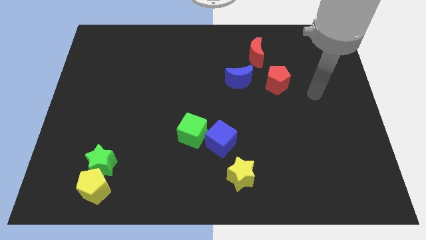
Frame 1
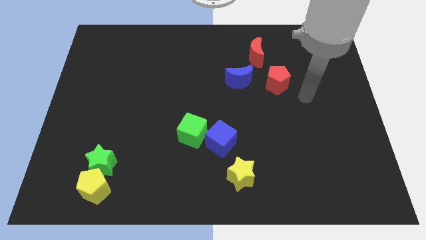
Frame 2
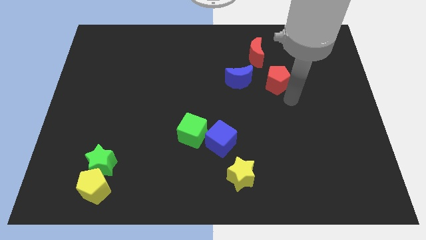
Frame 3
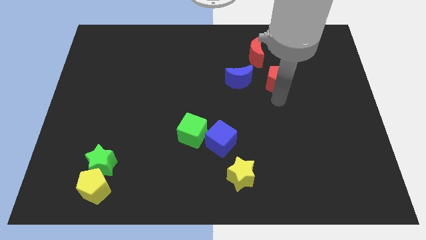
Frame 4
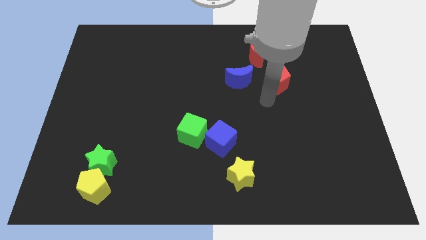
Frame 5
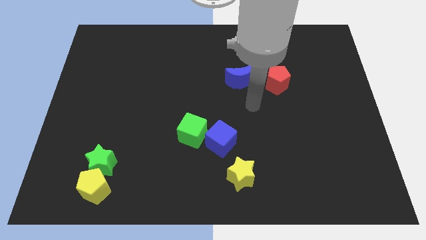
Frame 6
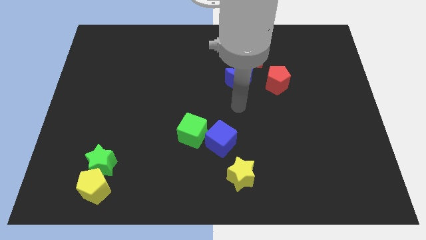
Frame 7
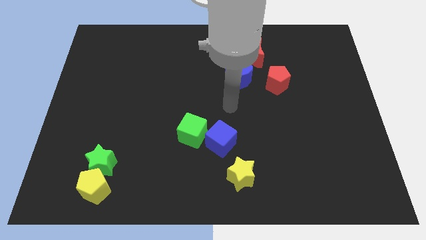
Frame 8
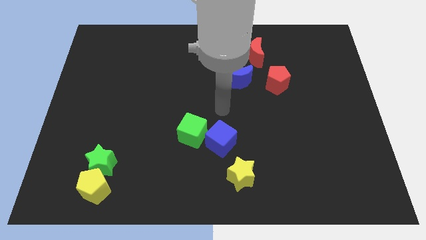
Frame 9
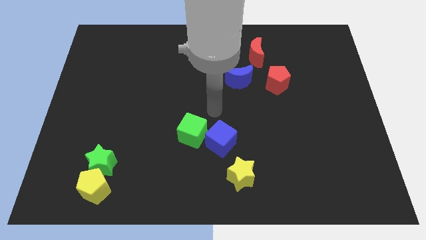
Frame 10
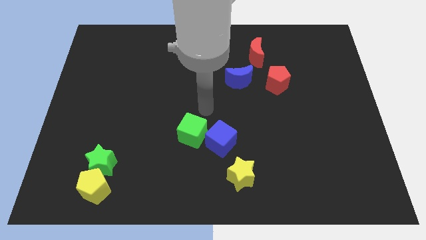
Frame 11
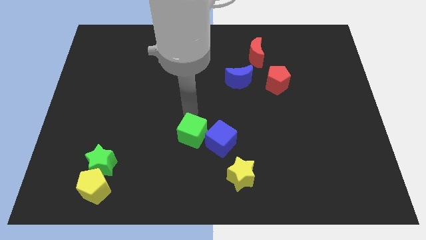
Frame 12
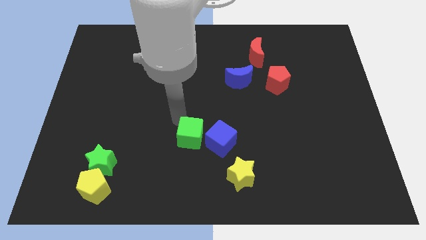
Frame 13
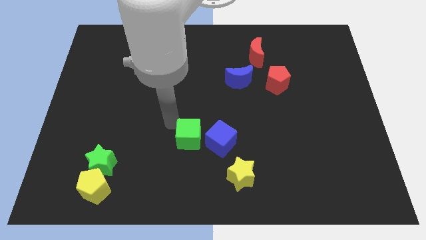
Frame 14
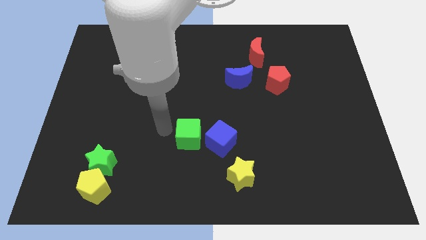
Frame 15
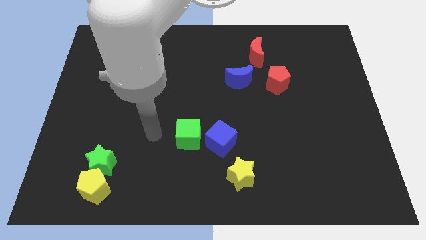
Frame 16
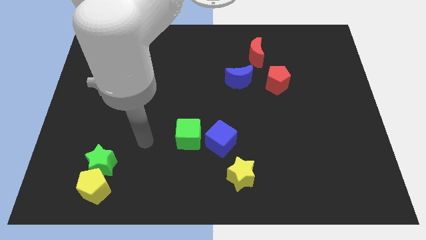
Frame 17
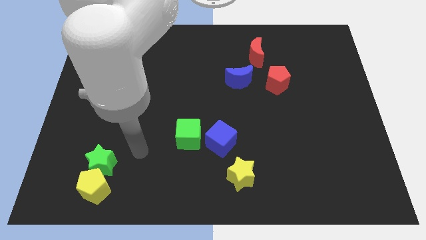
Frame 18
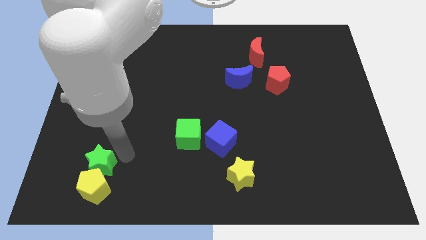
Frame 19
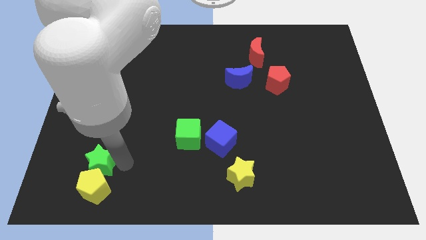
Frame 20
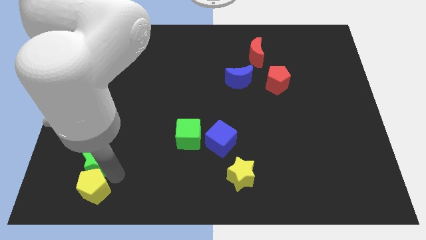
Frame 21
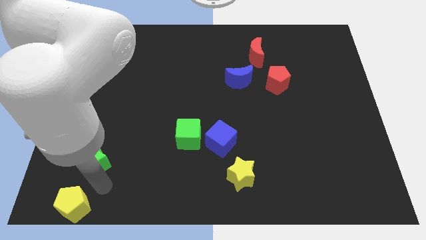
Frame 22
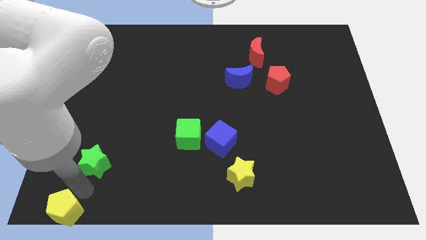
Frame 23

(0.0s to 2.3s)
pull the green star apart from the yellow pentagon

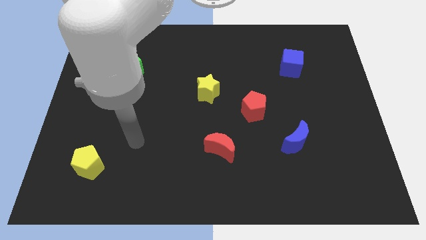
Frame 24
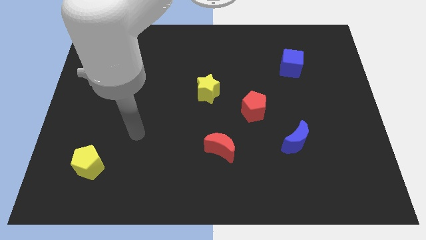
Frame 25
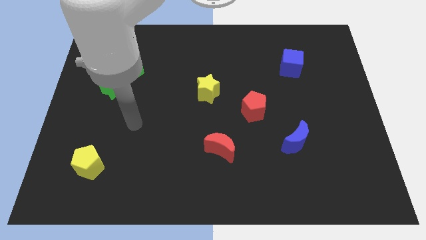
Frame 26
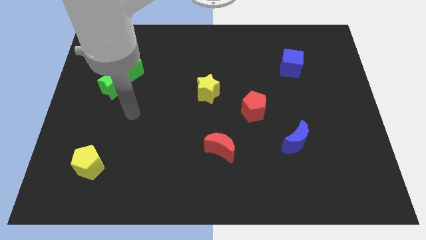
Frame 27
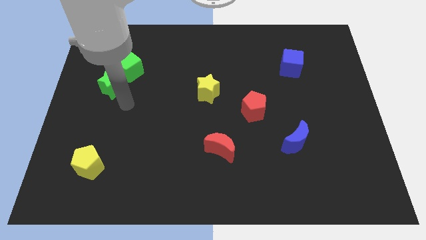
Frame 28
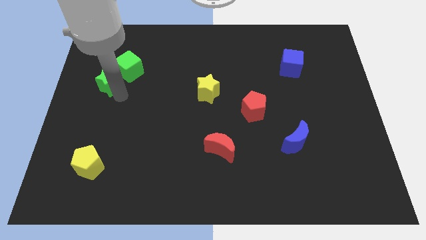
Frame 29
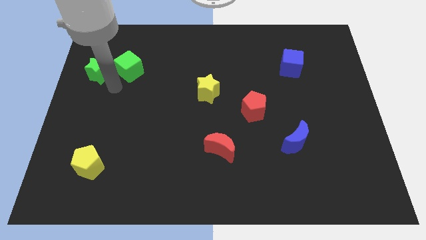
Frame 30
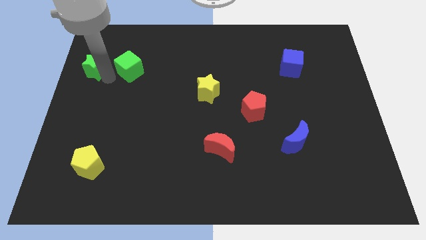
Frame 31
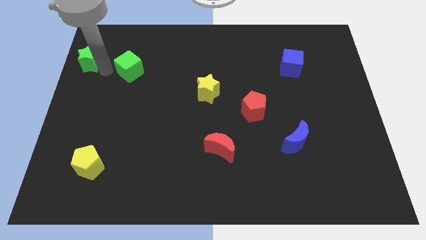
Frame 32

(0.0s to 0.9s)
pull the green cube apart from the green star

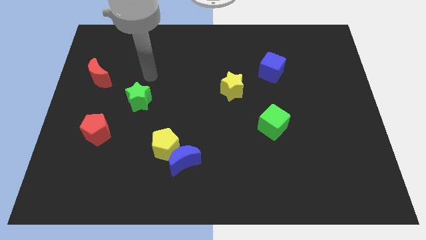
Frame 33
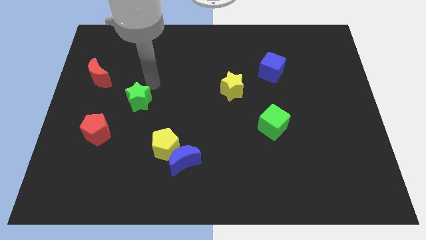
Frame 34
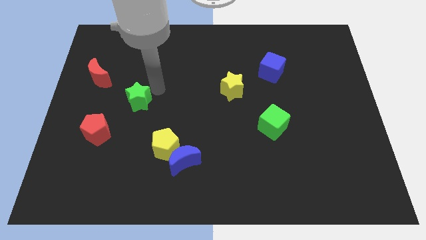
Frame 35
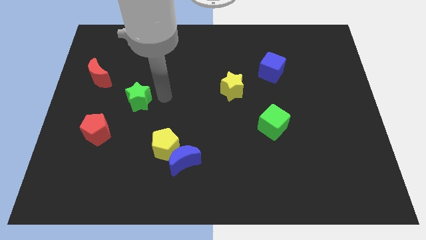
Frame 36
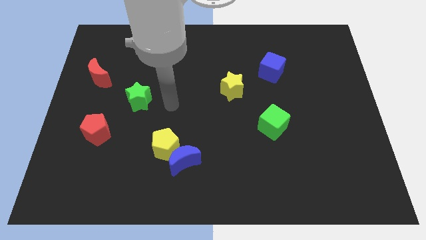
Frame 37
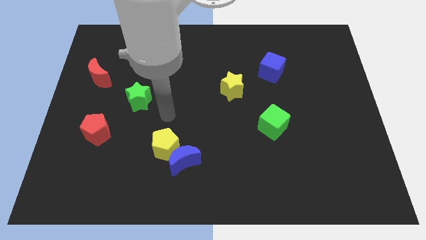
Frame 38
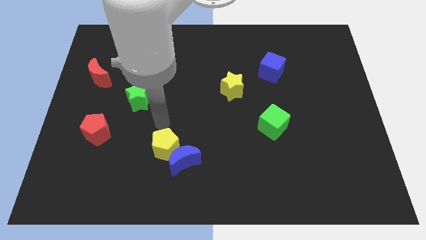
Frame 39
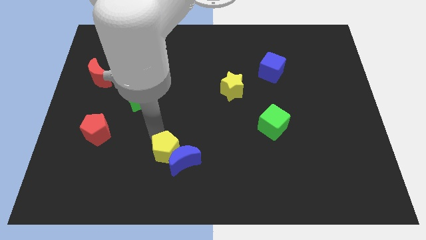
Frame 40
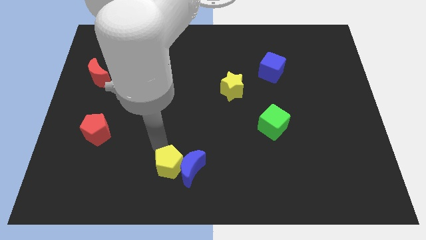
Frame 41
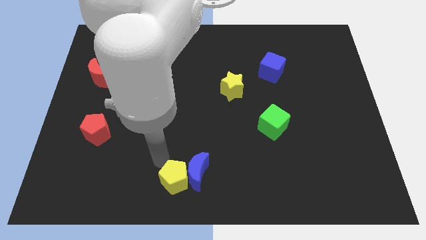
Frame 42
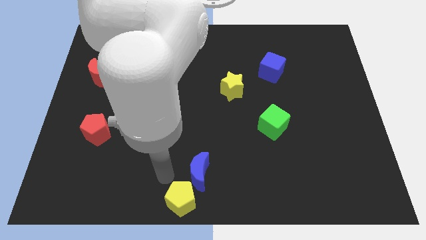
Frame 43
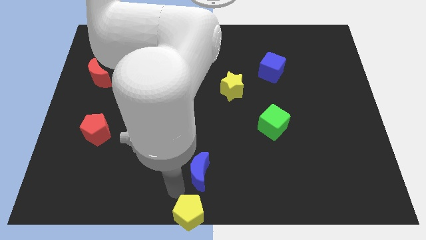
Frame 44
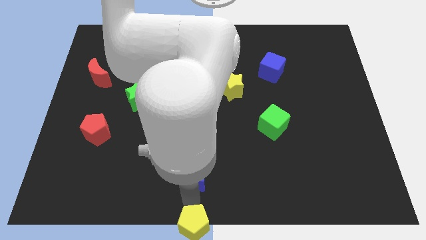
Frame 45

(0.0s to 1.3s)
separate the blue moon from the yellow pentagon

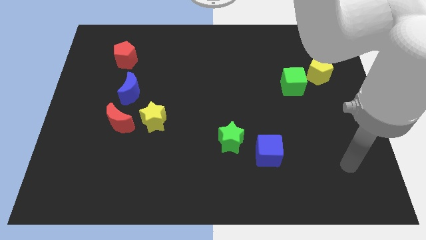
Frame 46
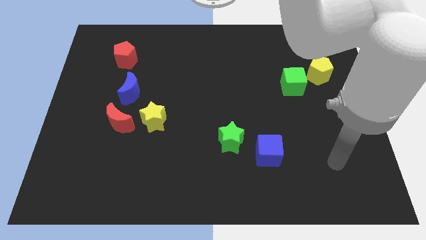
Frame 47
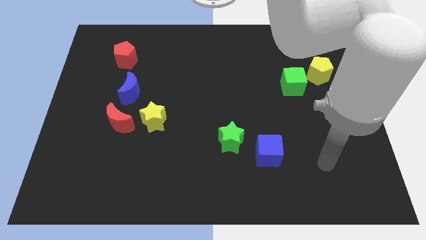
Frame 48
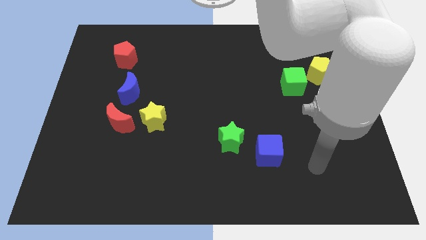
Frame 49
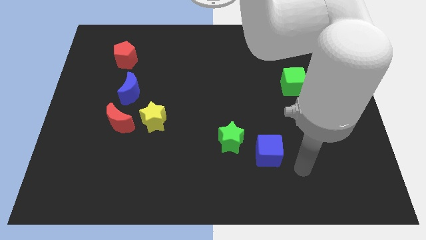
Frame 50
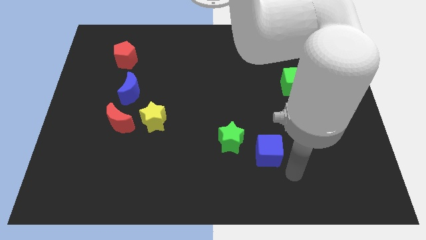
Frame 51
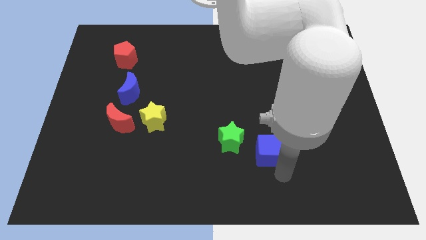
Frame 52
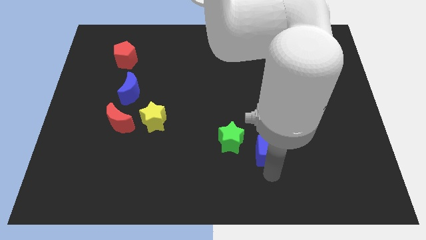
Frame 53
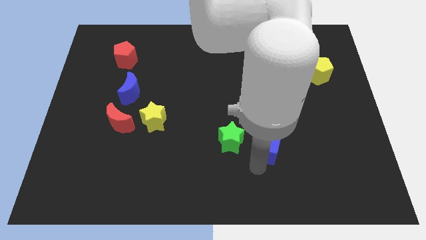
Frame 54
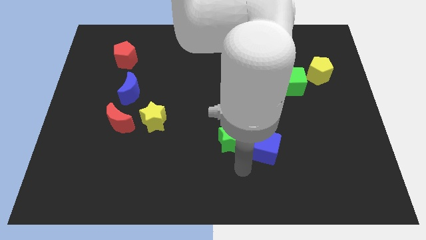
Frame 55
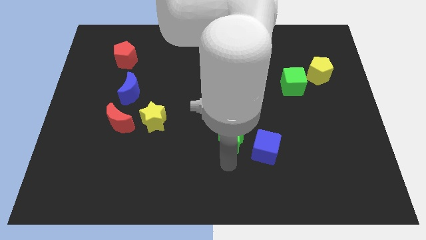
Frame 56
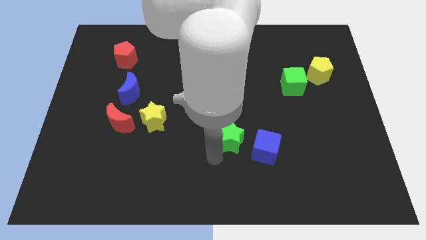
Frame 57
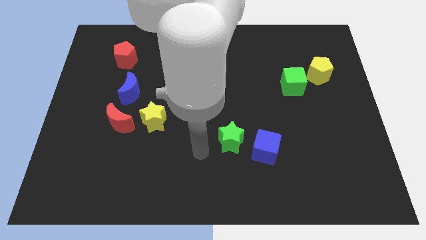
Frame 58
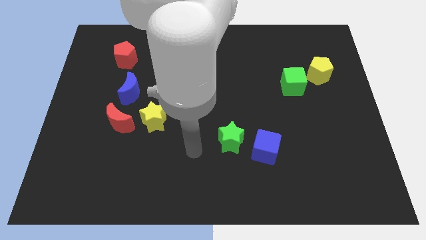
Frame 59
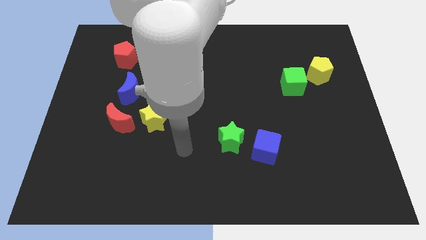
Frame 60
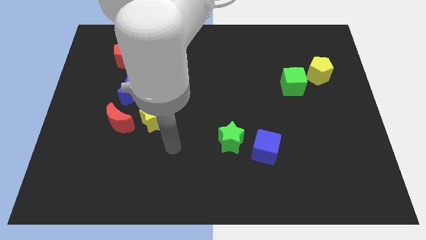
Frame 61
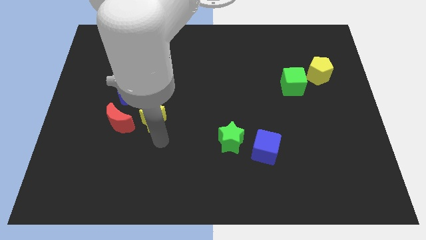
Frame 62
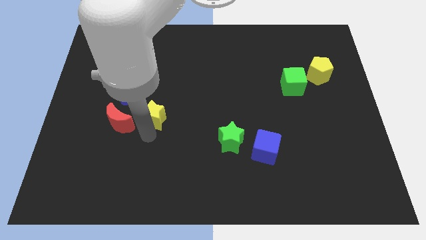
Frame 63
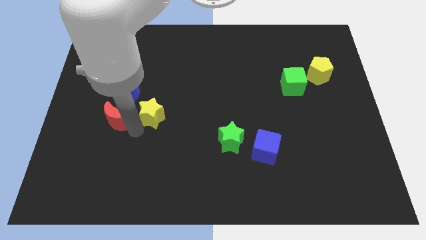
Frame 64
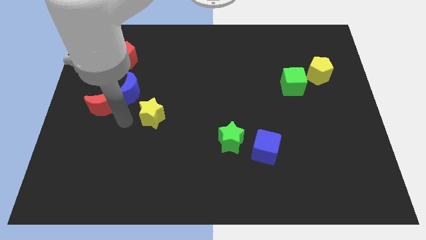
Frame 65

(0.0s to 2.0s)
pull the yellow star apart from the red moon

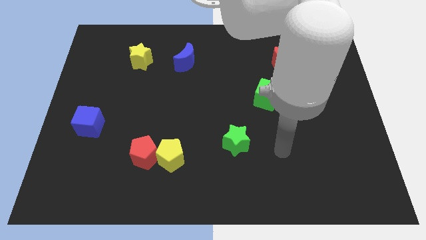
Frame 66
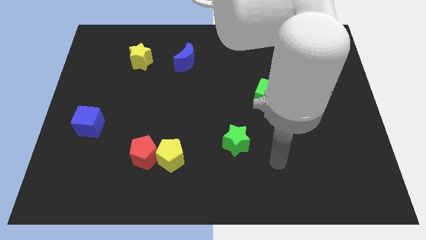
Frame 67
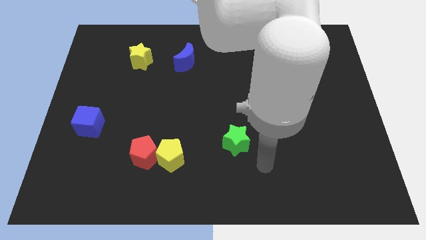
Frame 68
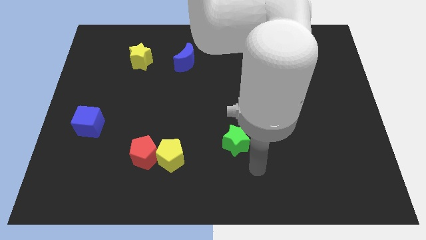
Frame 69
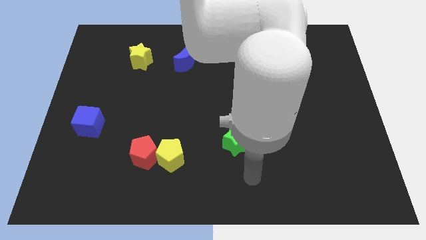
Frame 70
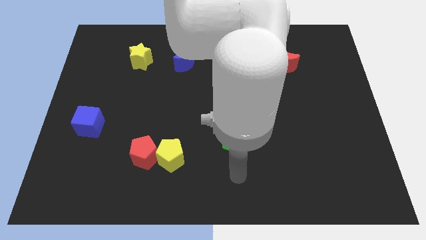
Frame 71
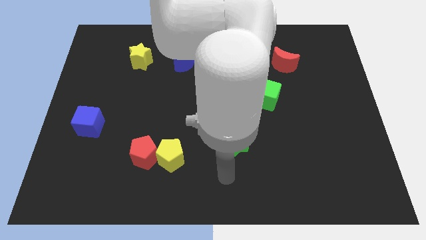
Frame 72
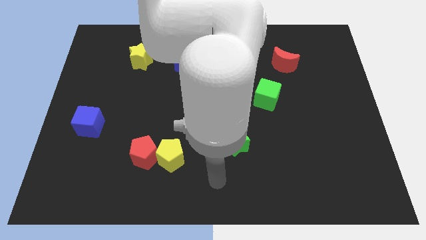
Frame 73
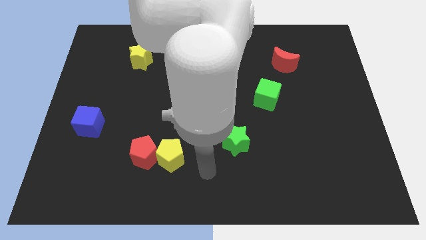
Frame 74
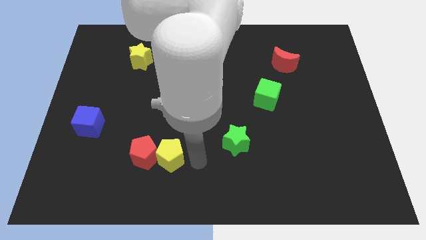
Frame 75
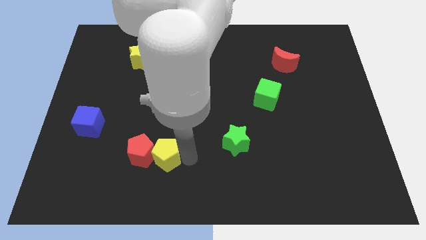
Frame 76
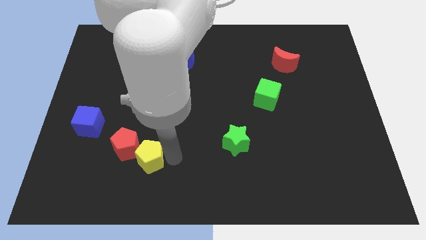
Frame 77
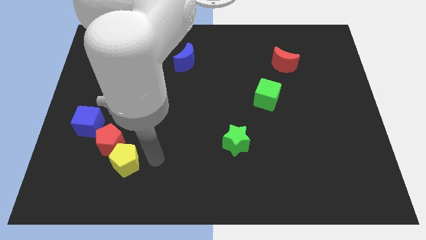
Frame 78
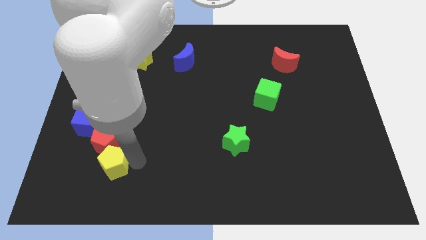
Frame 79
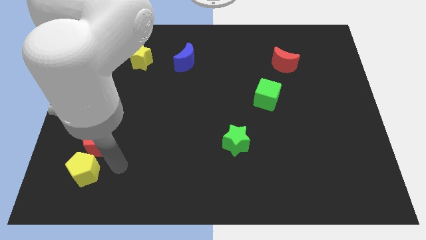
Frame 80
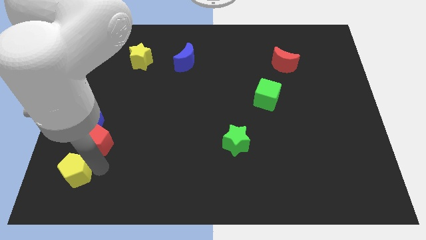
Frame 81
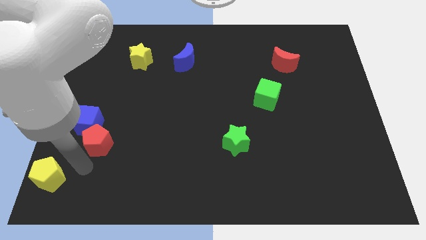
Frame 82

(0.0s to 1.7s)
move the red pentagon away from the yellow pentagon

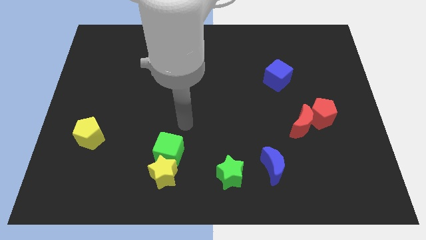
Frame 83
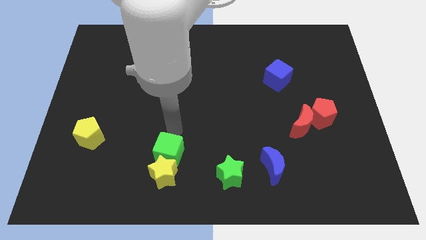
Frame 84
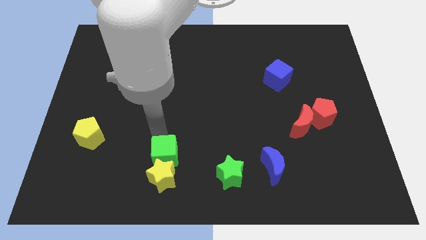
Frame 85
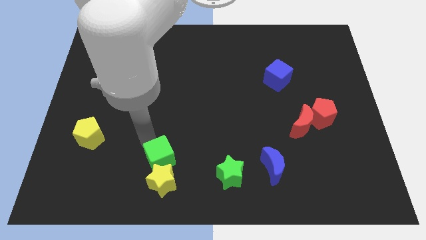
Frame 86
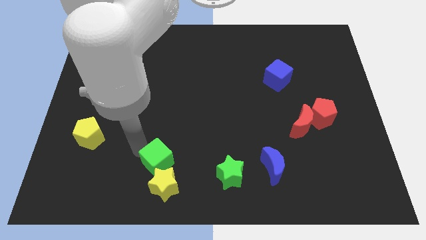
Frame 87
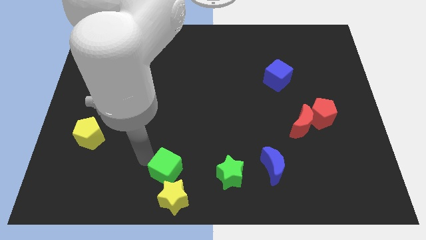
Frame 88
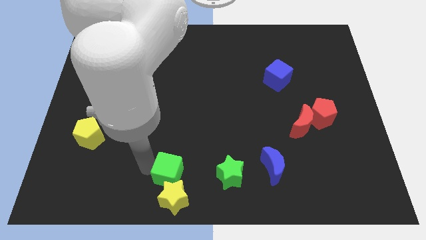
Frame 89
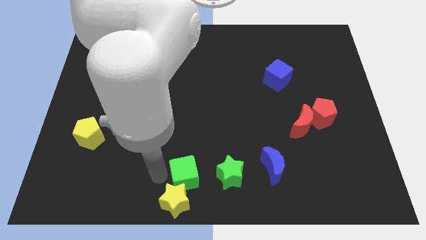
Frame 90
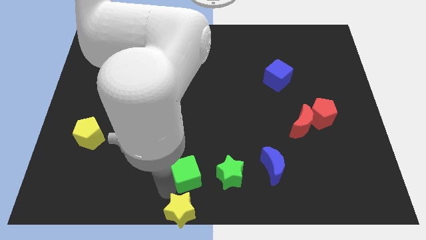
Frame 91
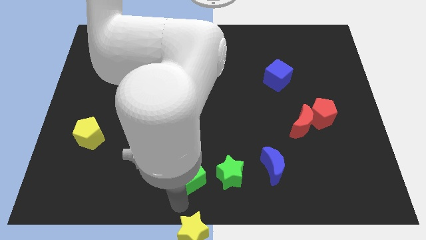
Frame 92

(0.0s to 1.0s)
separate the green cube from the yellow star
